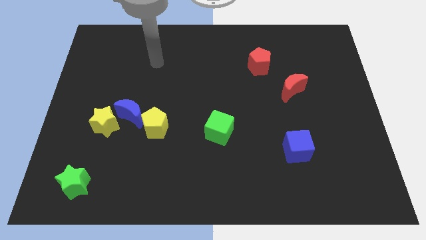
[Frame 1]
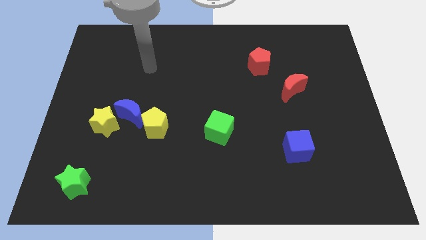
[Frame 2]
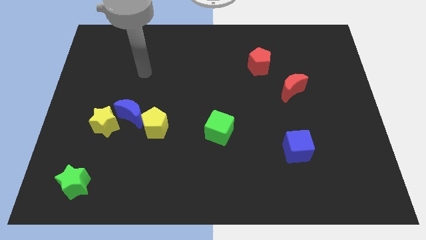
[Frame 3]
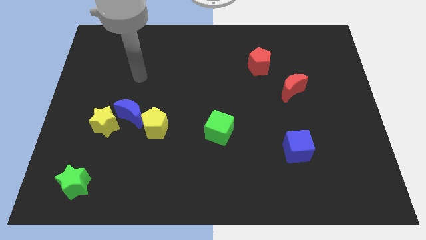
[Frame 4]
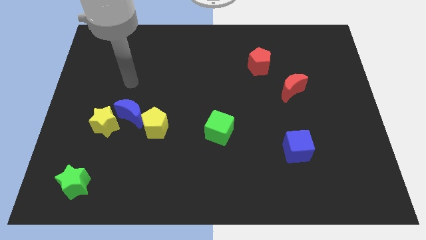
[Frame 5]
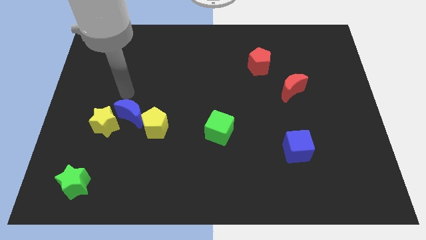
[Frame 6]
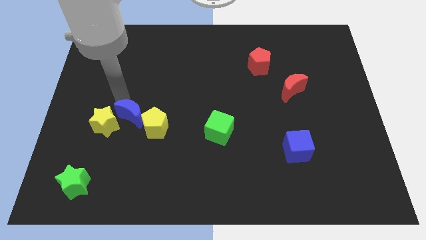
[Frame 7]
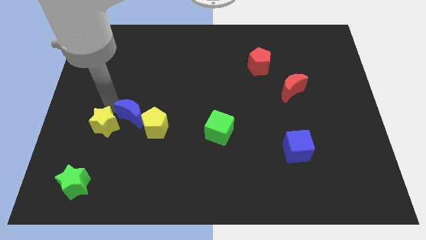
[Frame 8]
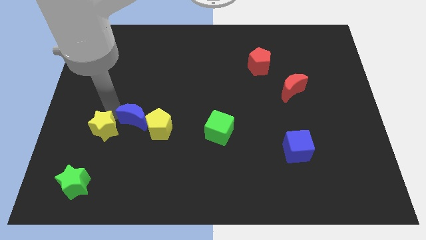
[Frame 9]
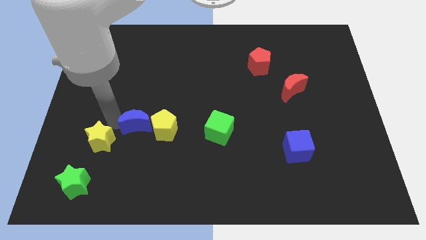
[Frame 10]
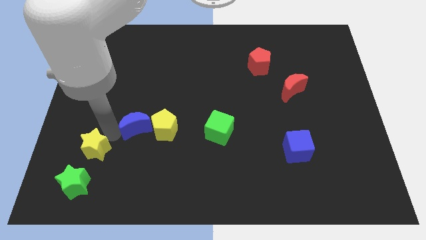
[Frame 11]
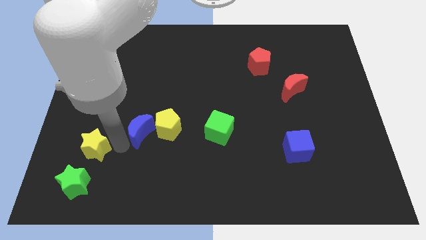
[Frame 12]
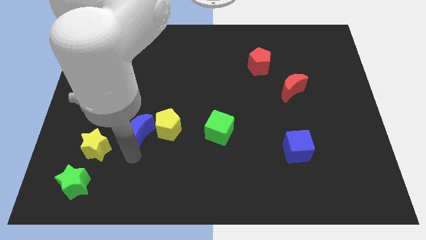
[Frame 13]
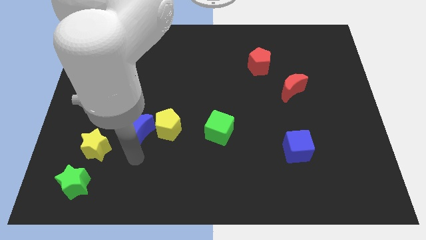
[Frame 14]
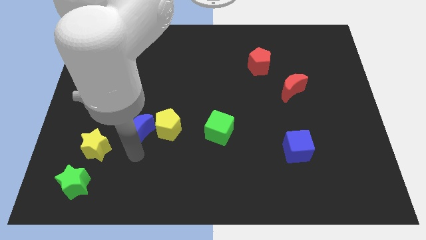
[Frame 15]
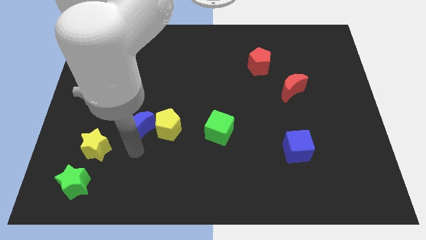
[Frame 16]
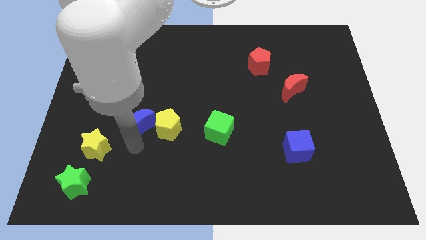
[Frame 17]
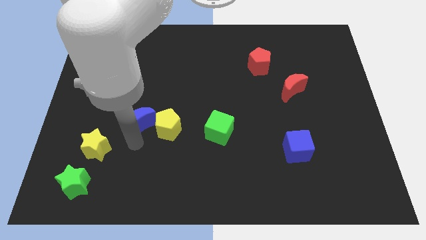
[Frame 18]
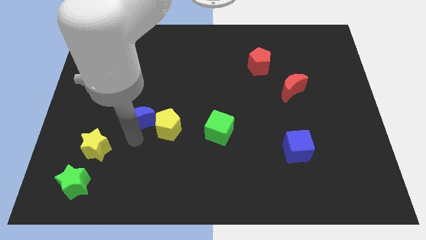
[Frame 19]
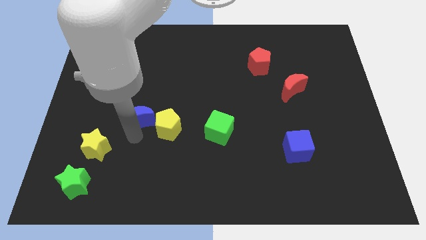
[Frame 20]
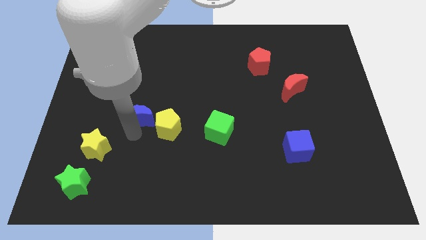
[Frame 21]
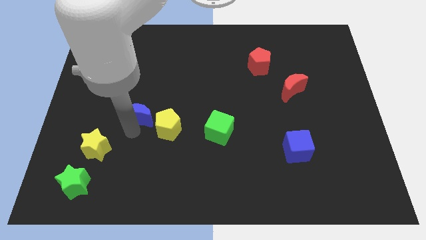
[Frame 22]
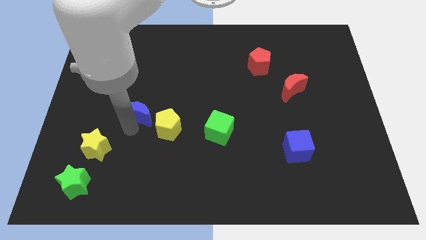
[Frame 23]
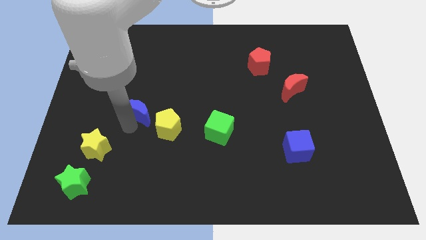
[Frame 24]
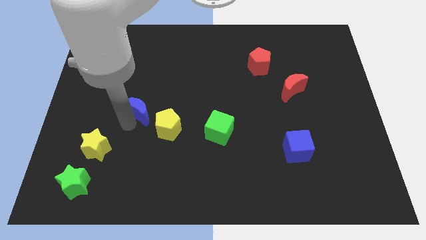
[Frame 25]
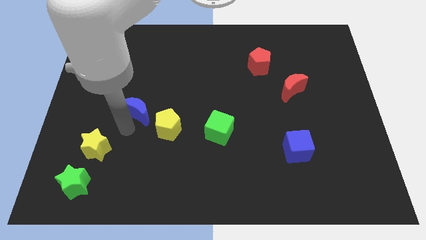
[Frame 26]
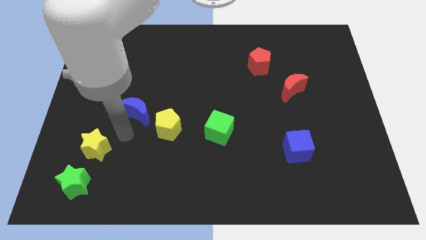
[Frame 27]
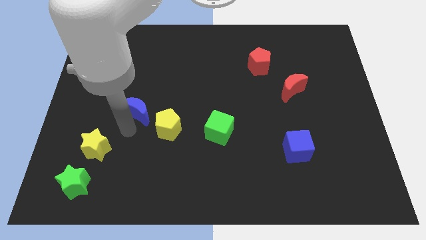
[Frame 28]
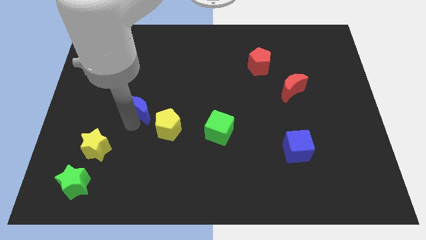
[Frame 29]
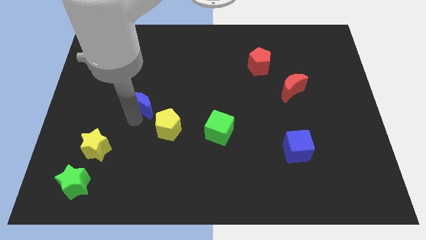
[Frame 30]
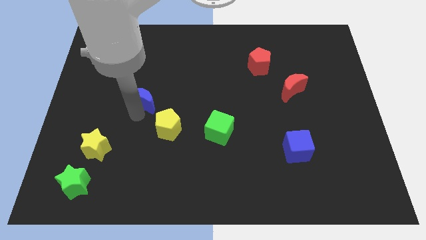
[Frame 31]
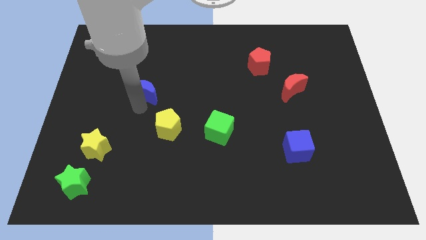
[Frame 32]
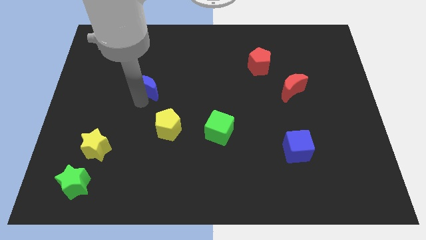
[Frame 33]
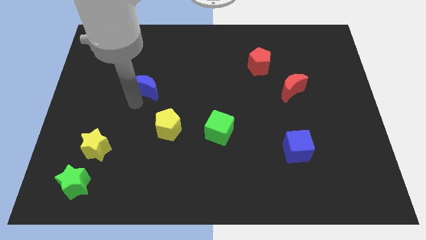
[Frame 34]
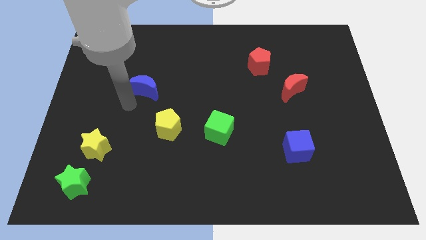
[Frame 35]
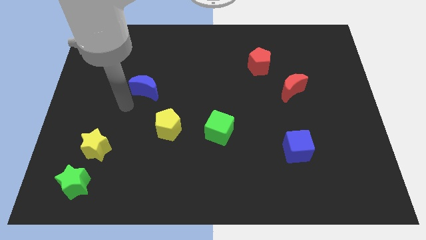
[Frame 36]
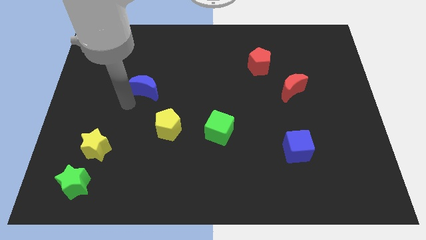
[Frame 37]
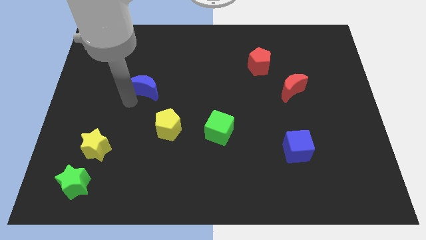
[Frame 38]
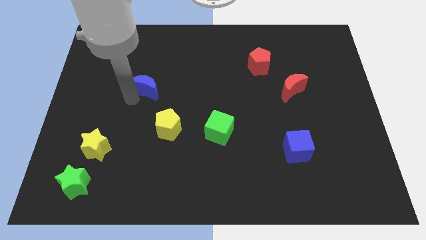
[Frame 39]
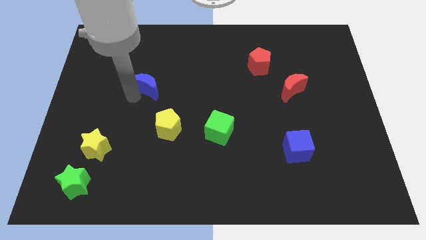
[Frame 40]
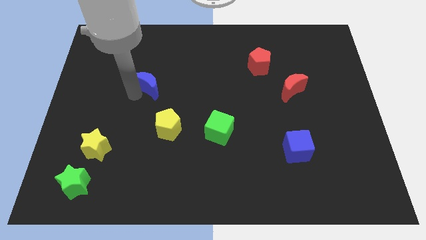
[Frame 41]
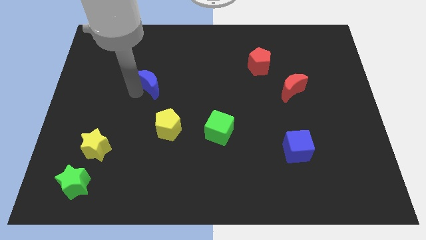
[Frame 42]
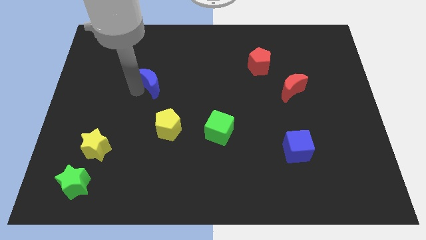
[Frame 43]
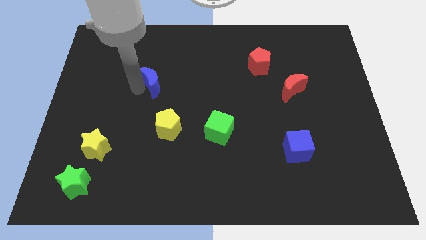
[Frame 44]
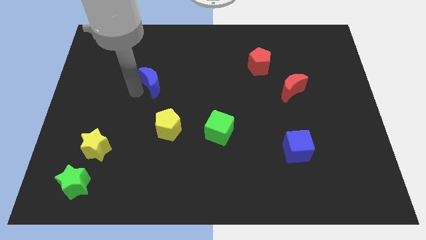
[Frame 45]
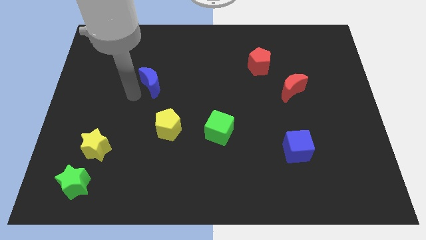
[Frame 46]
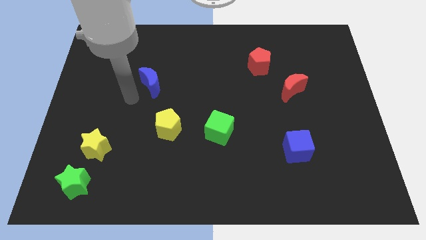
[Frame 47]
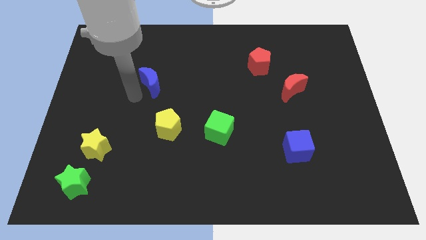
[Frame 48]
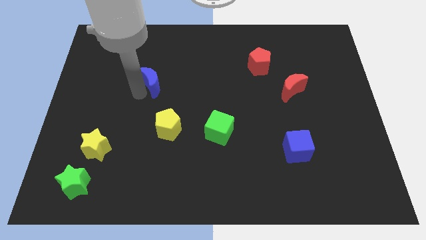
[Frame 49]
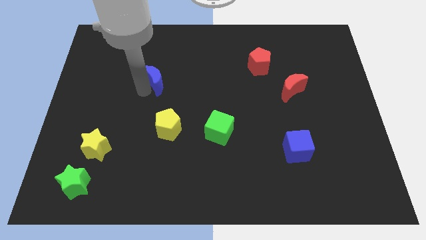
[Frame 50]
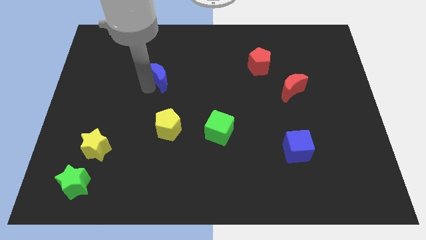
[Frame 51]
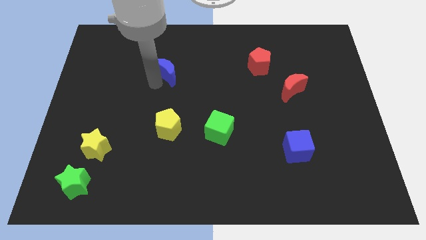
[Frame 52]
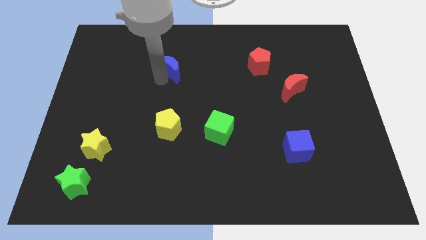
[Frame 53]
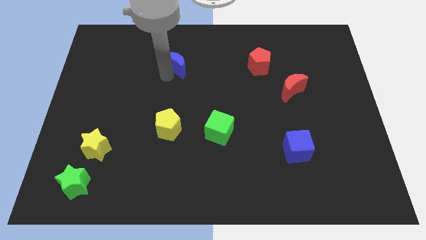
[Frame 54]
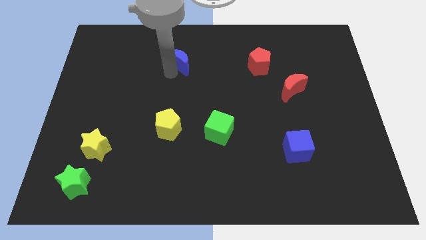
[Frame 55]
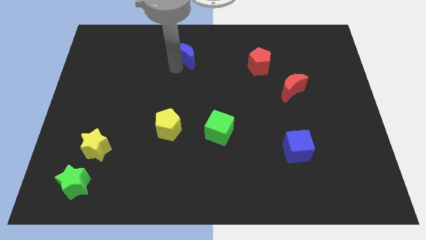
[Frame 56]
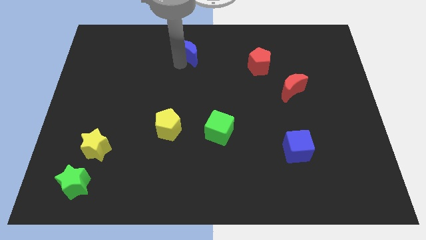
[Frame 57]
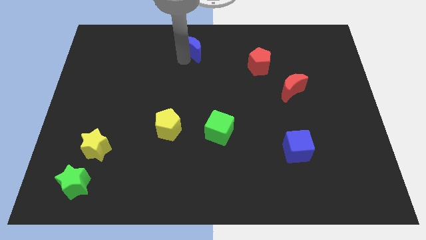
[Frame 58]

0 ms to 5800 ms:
push the blue moon to the top side

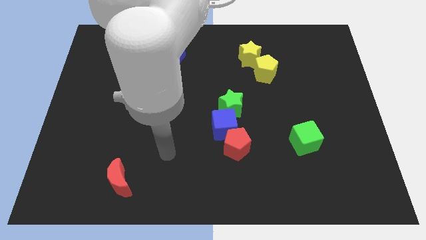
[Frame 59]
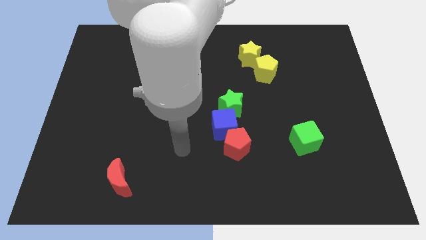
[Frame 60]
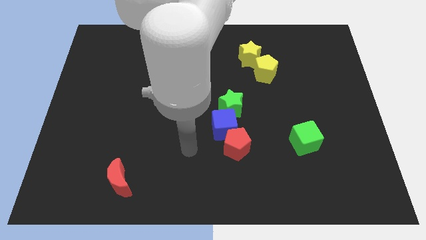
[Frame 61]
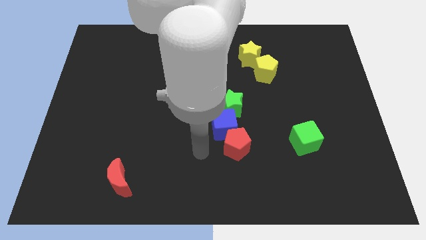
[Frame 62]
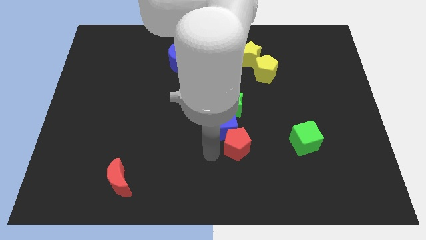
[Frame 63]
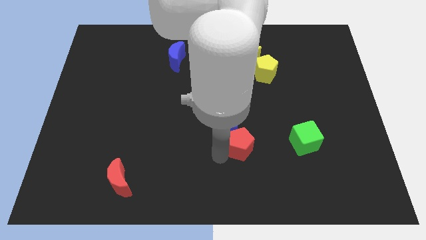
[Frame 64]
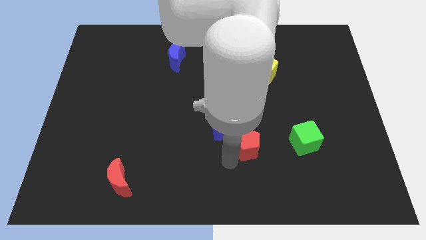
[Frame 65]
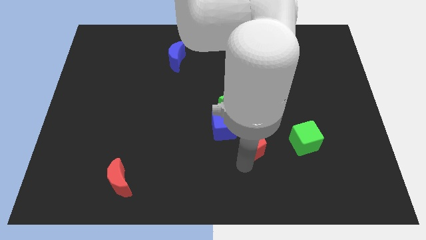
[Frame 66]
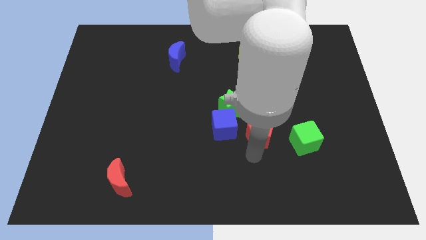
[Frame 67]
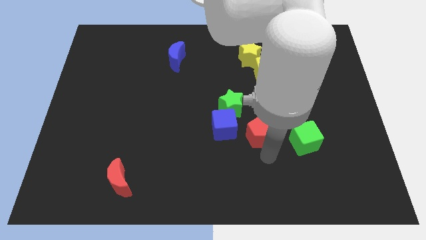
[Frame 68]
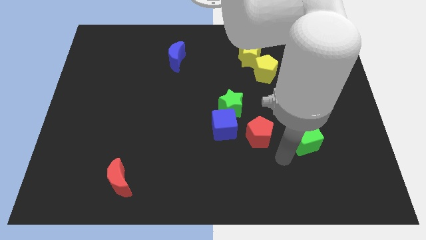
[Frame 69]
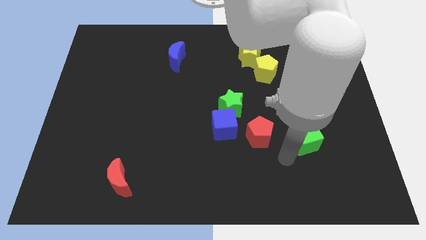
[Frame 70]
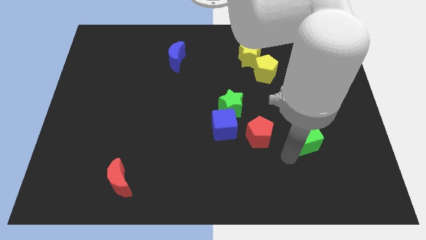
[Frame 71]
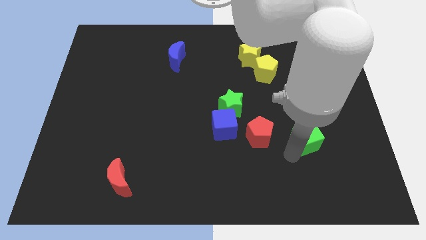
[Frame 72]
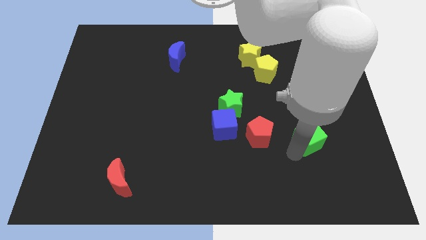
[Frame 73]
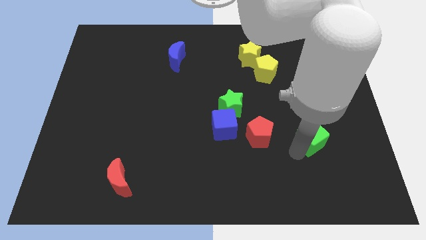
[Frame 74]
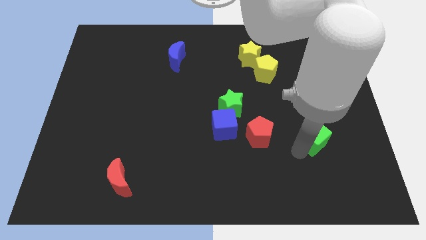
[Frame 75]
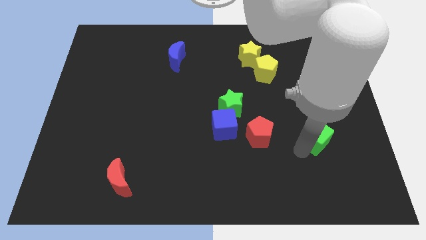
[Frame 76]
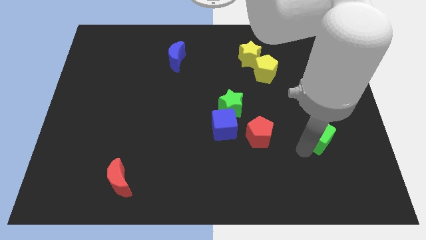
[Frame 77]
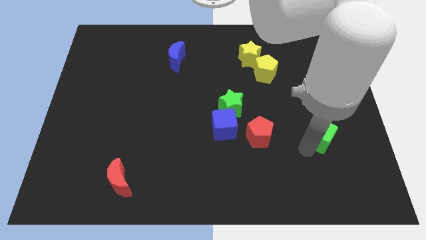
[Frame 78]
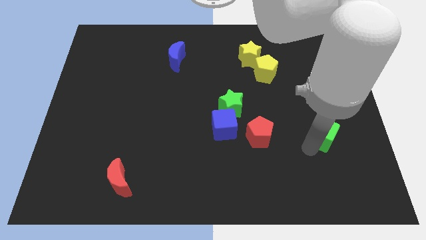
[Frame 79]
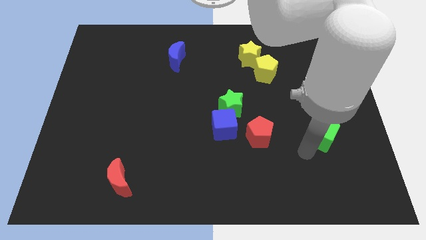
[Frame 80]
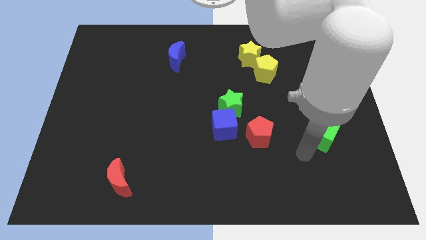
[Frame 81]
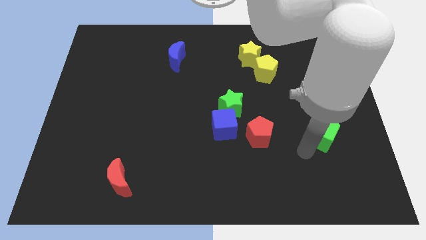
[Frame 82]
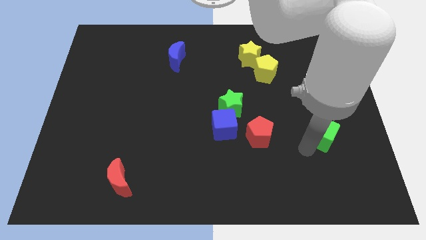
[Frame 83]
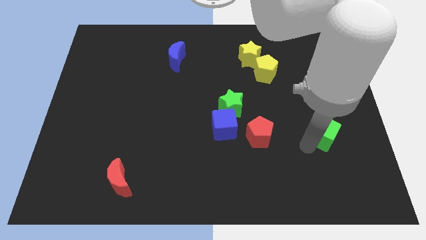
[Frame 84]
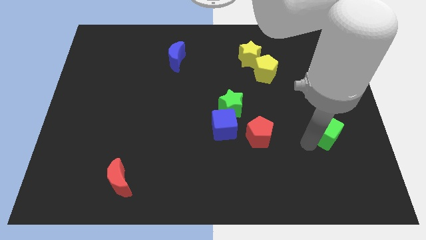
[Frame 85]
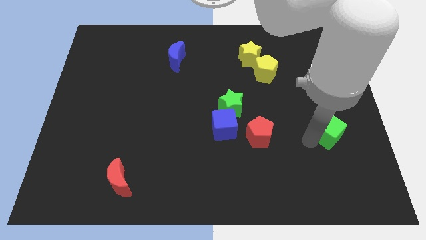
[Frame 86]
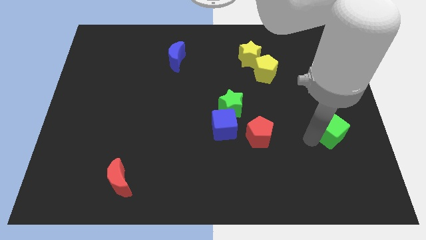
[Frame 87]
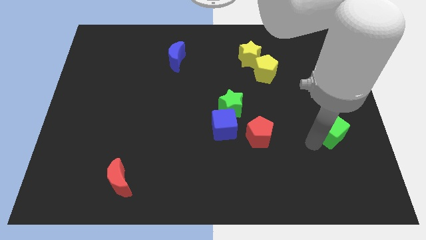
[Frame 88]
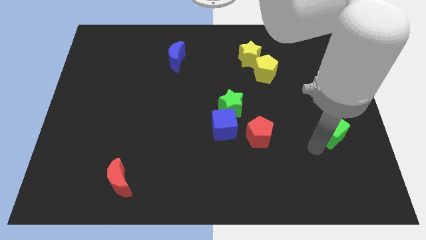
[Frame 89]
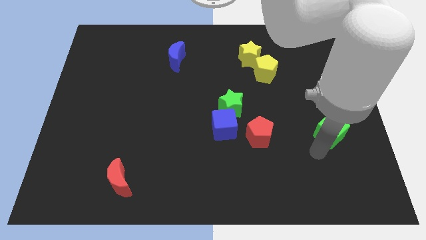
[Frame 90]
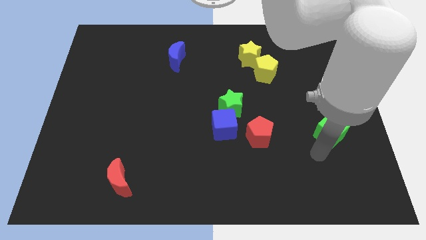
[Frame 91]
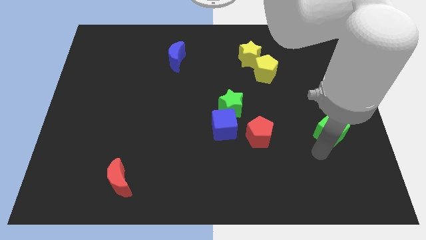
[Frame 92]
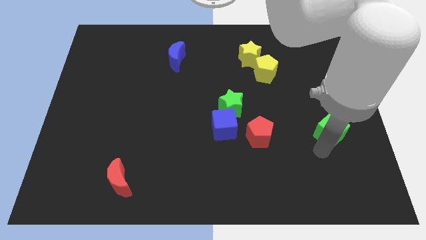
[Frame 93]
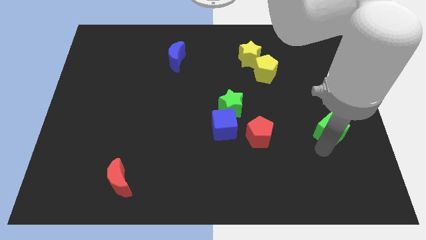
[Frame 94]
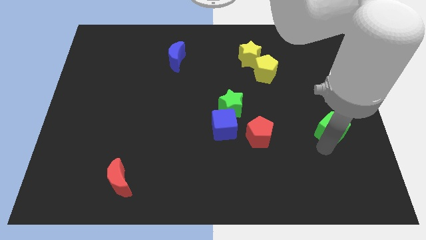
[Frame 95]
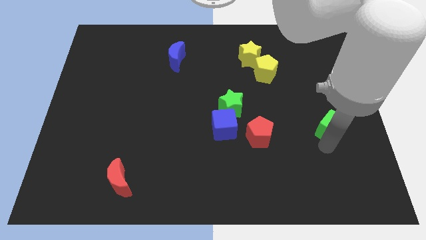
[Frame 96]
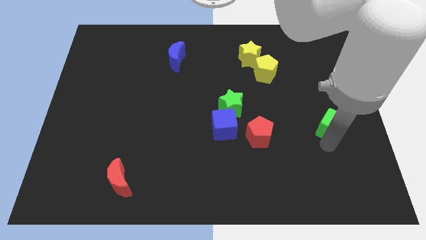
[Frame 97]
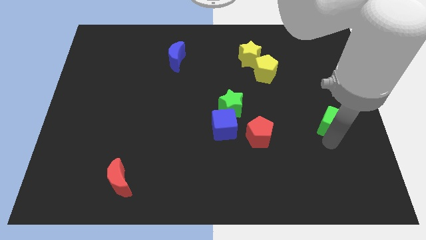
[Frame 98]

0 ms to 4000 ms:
slide the green cube to the center right
